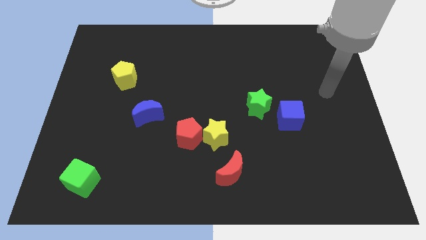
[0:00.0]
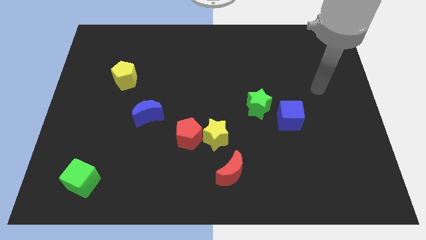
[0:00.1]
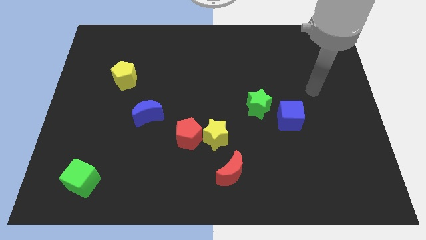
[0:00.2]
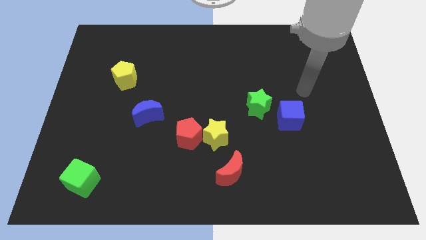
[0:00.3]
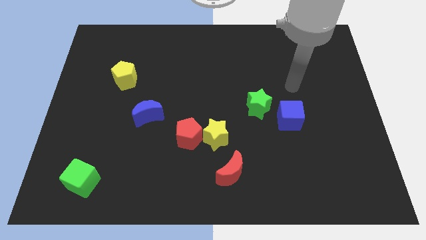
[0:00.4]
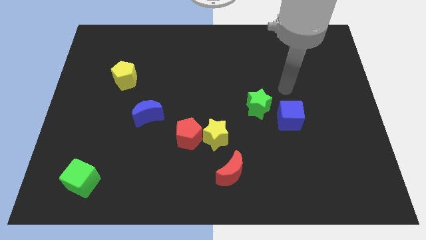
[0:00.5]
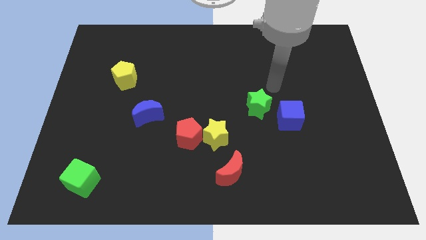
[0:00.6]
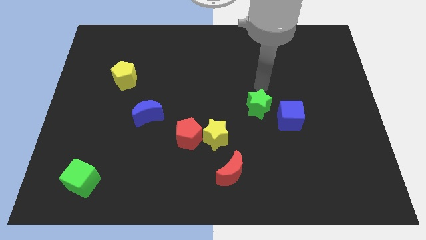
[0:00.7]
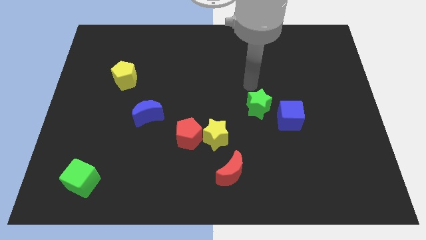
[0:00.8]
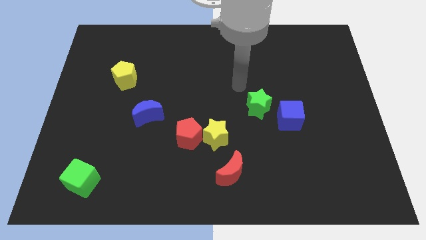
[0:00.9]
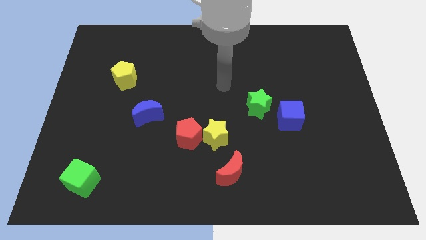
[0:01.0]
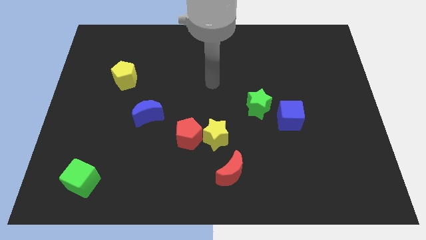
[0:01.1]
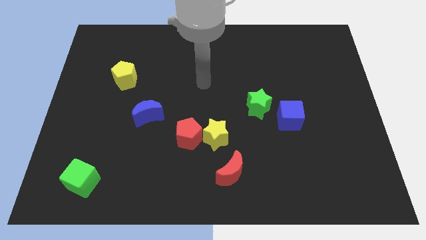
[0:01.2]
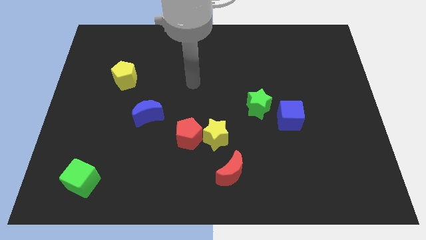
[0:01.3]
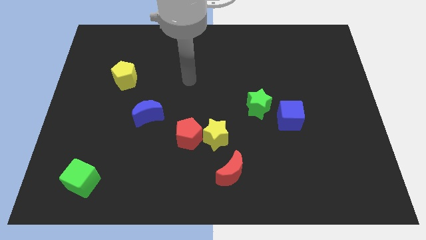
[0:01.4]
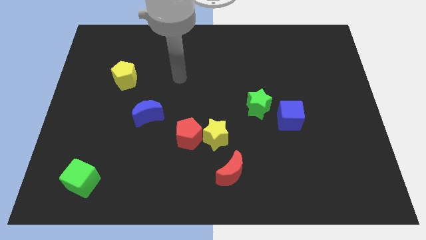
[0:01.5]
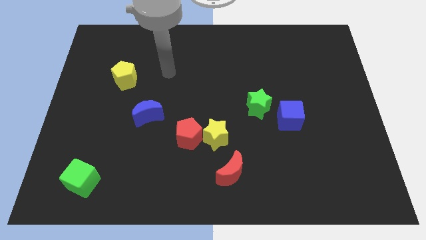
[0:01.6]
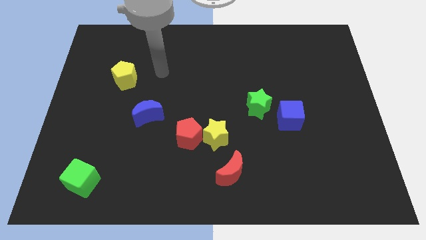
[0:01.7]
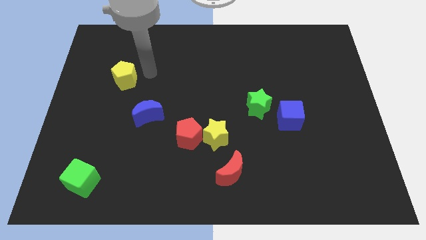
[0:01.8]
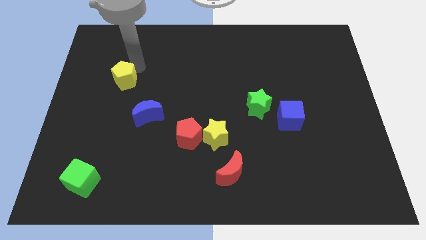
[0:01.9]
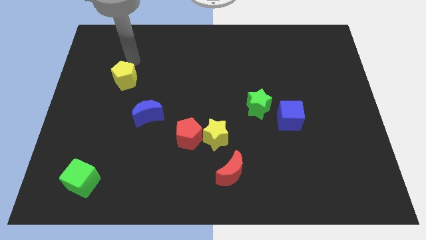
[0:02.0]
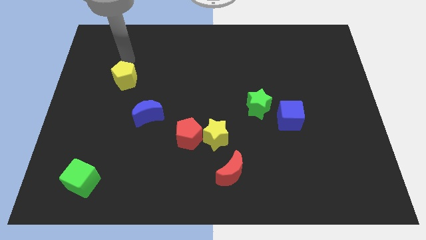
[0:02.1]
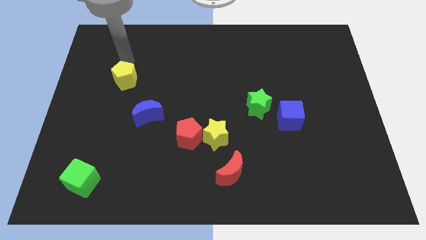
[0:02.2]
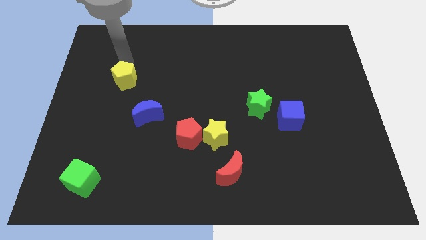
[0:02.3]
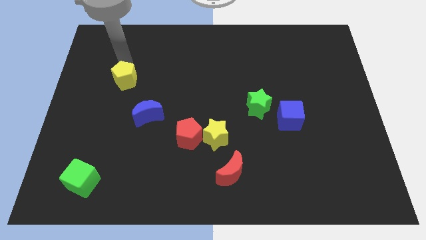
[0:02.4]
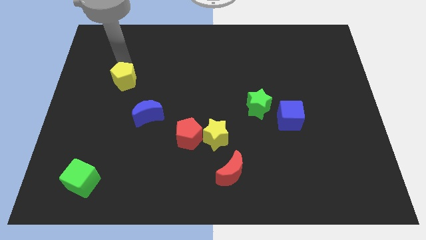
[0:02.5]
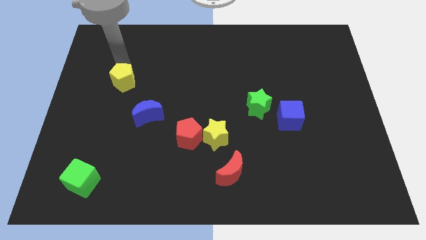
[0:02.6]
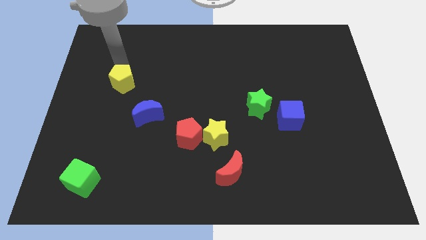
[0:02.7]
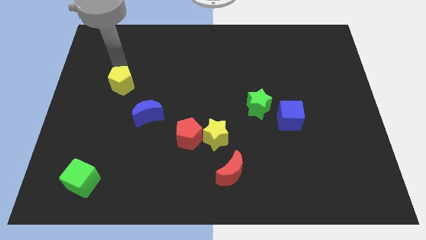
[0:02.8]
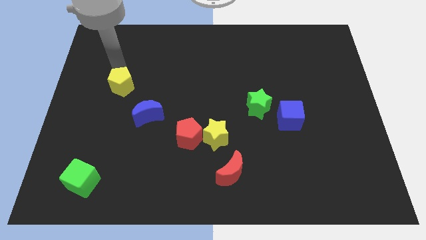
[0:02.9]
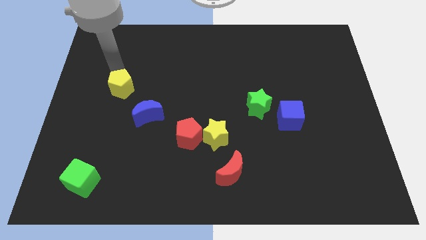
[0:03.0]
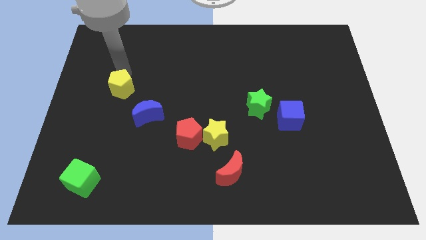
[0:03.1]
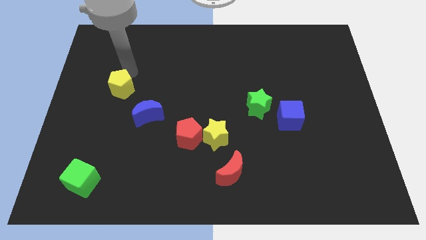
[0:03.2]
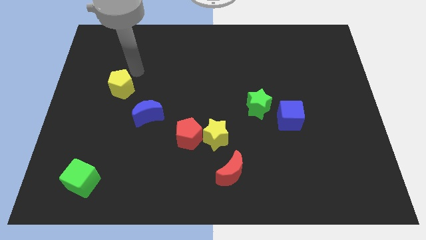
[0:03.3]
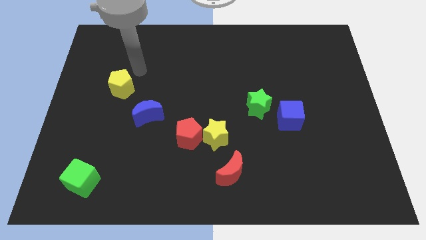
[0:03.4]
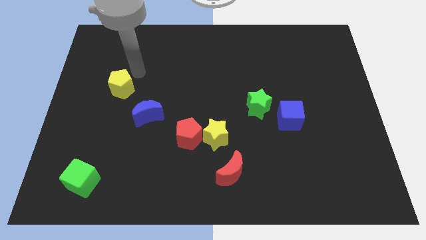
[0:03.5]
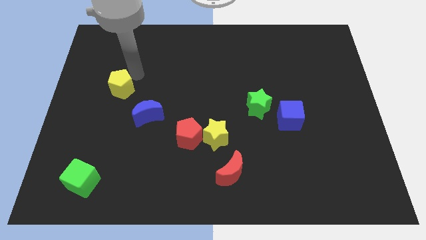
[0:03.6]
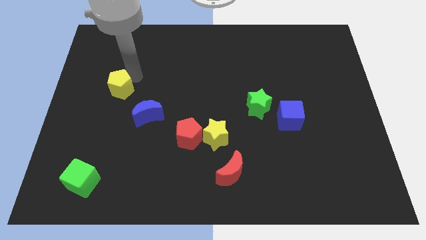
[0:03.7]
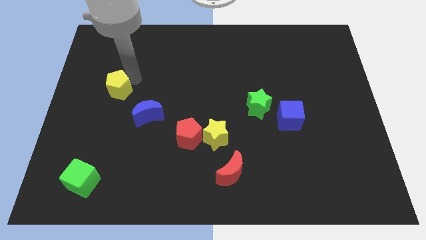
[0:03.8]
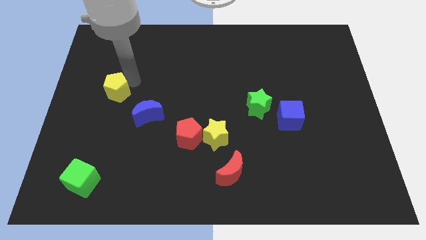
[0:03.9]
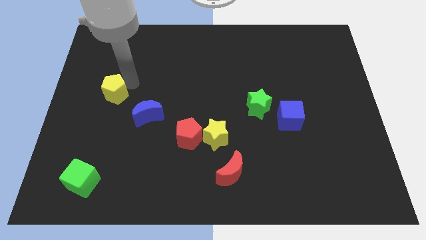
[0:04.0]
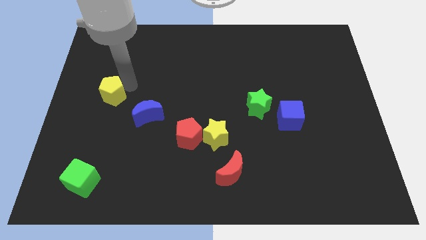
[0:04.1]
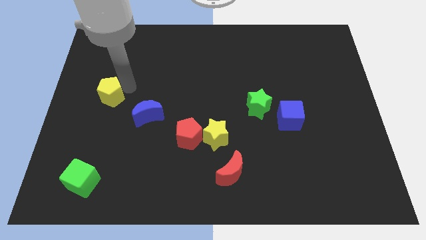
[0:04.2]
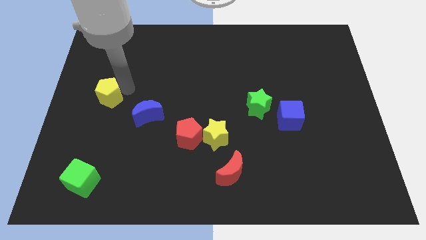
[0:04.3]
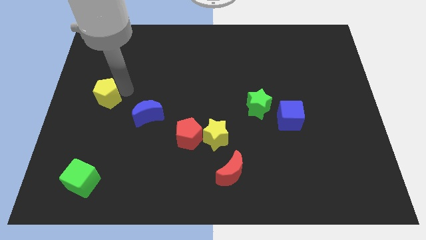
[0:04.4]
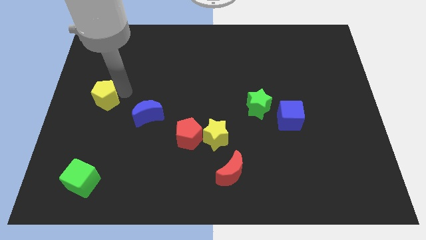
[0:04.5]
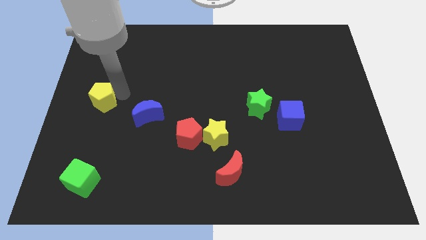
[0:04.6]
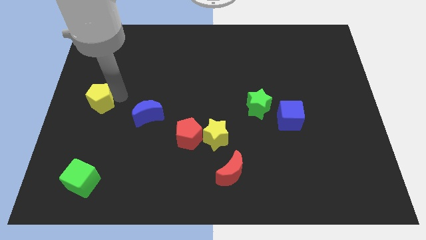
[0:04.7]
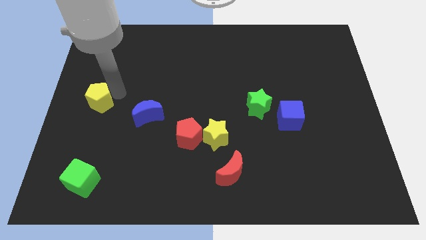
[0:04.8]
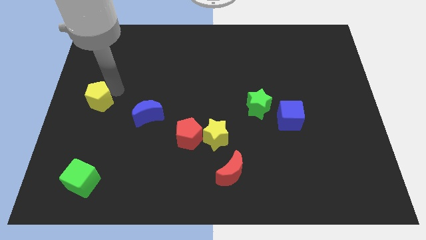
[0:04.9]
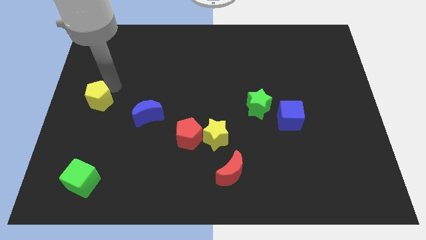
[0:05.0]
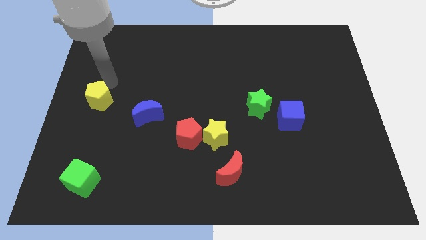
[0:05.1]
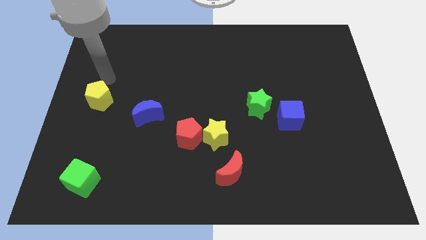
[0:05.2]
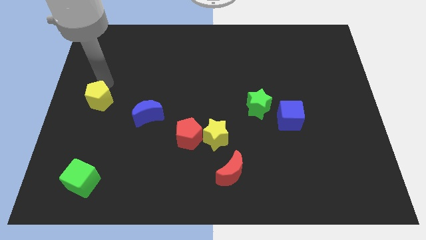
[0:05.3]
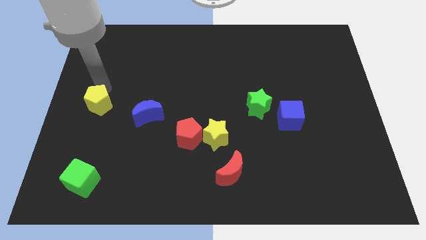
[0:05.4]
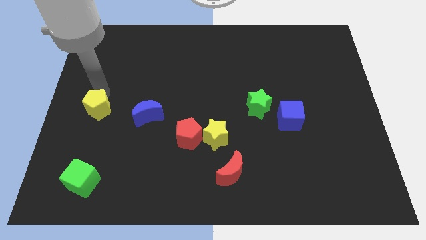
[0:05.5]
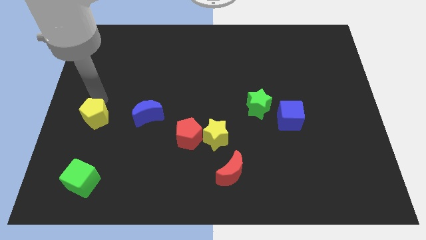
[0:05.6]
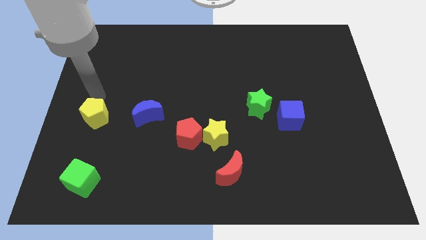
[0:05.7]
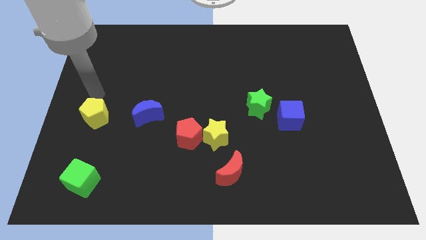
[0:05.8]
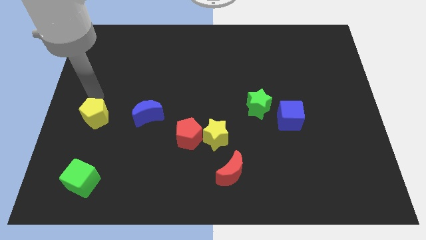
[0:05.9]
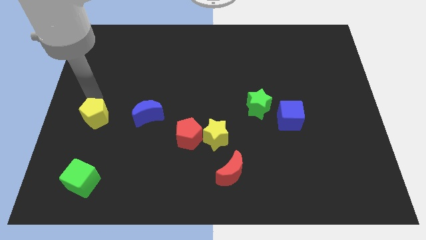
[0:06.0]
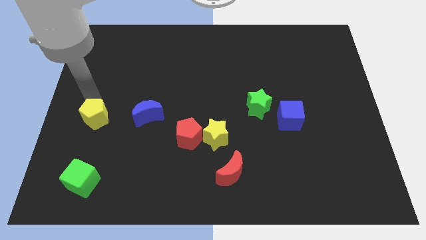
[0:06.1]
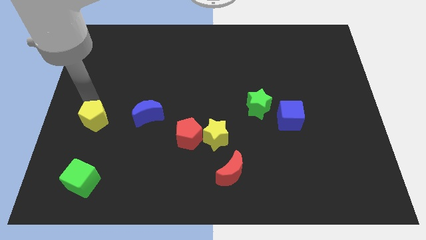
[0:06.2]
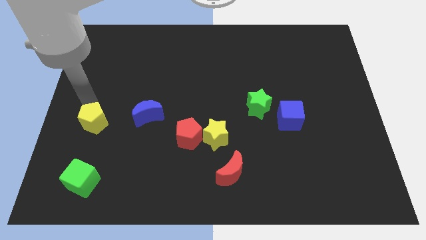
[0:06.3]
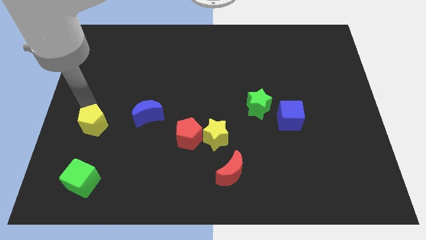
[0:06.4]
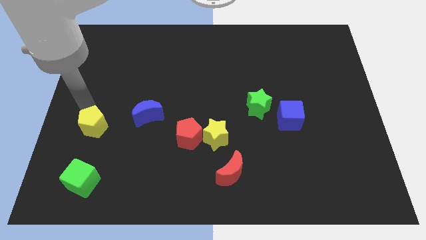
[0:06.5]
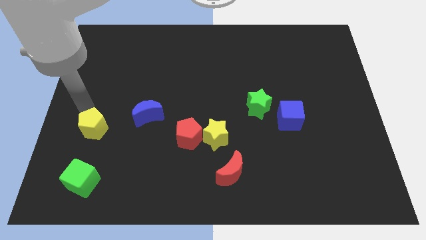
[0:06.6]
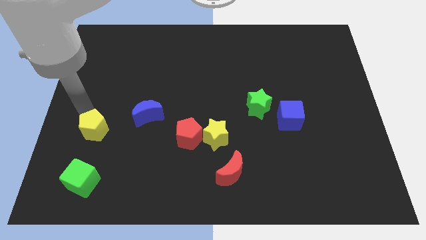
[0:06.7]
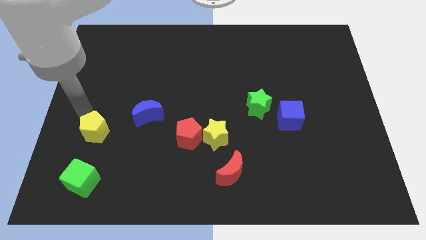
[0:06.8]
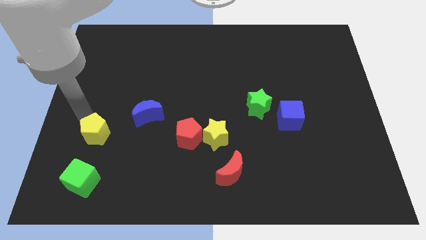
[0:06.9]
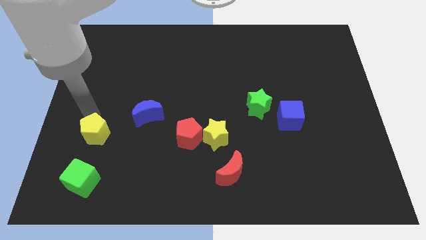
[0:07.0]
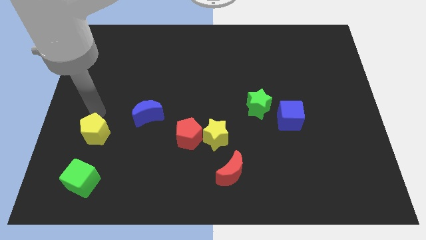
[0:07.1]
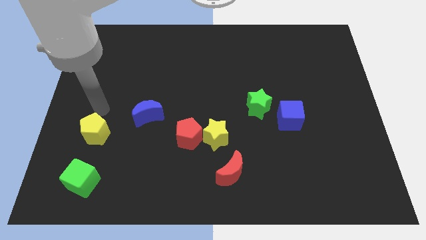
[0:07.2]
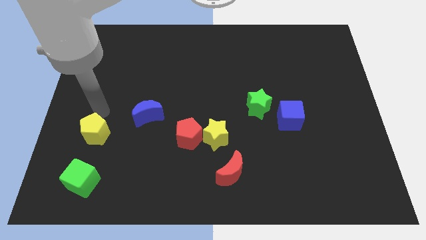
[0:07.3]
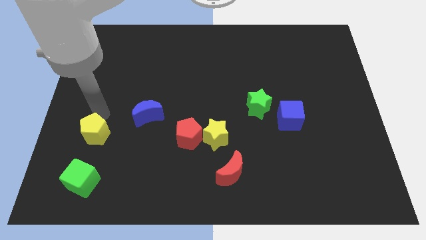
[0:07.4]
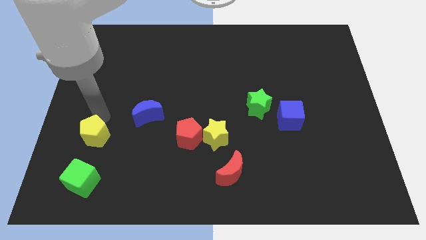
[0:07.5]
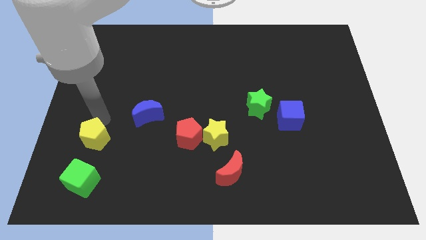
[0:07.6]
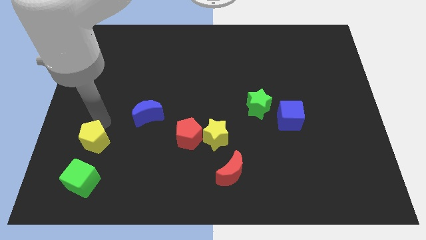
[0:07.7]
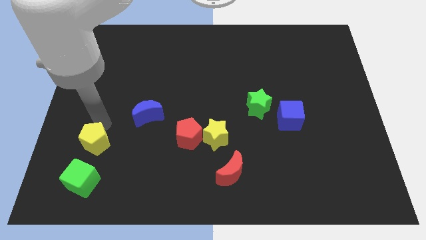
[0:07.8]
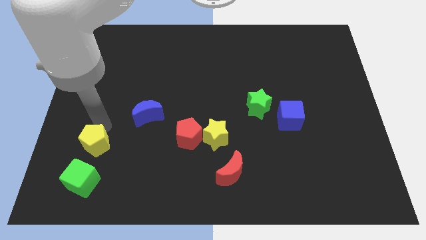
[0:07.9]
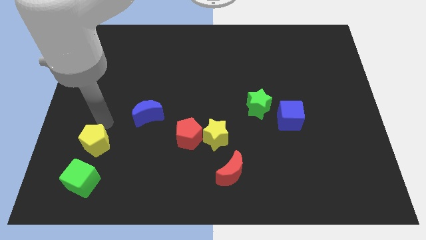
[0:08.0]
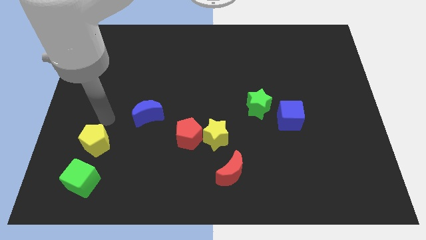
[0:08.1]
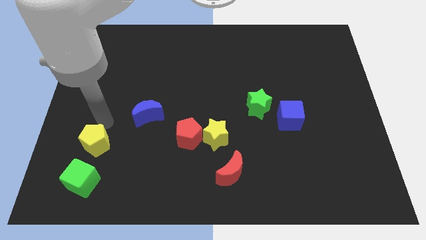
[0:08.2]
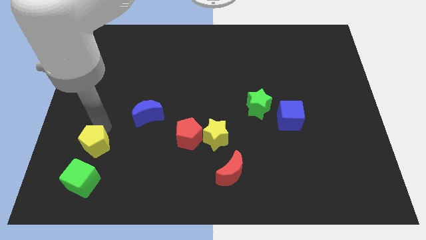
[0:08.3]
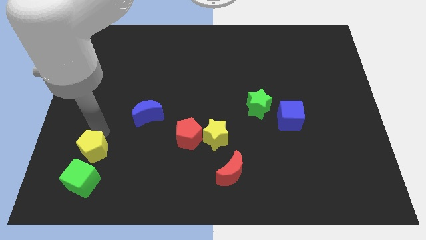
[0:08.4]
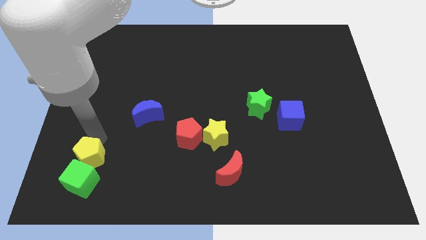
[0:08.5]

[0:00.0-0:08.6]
push the yellow pentagon next to the green cube

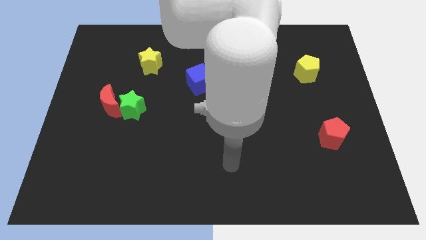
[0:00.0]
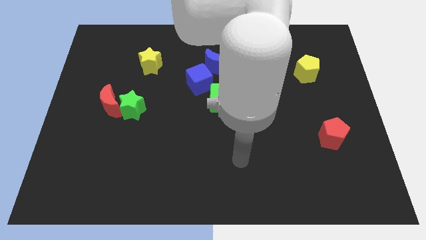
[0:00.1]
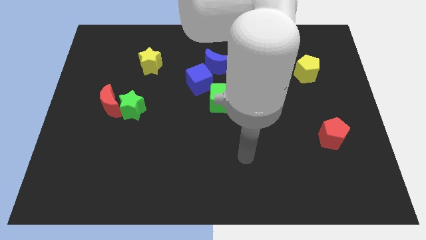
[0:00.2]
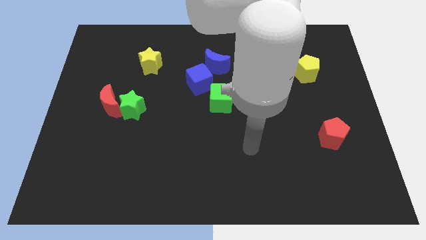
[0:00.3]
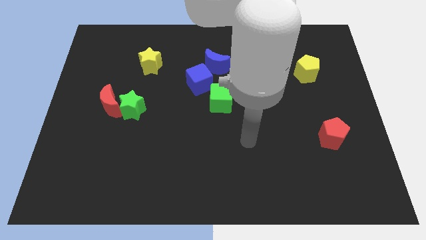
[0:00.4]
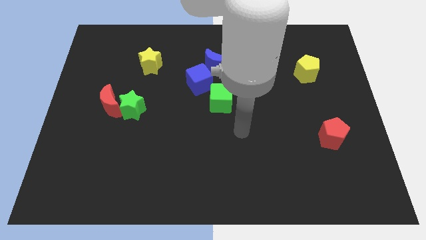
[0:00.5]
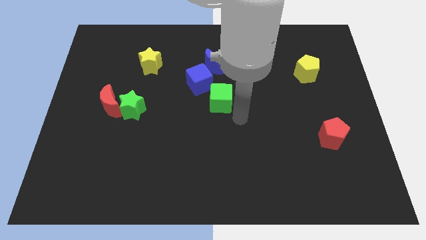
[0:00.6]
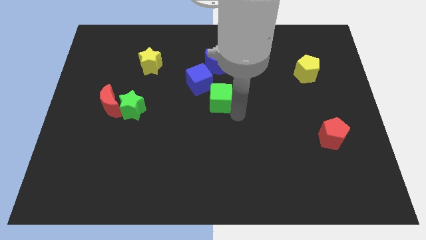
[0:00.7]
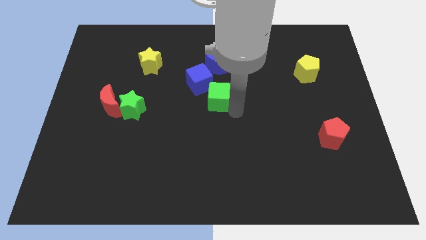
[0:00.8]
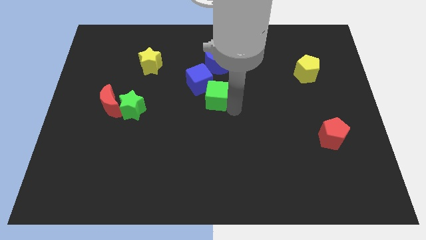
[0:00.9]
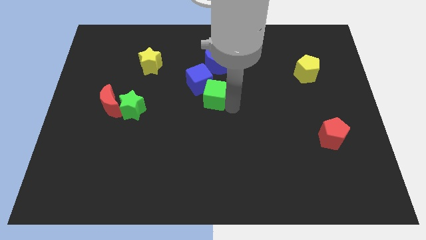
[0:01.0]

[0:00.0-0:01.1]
push the green cube towards the blue cube
